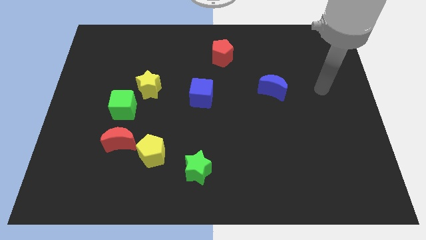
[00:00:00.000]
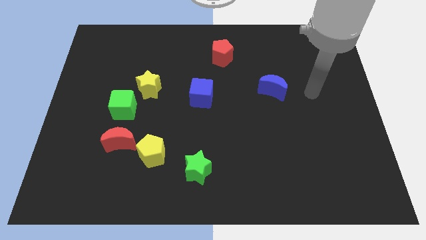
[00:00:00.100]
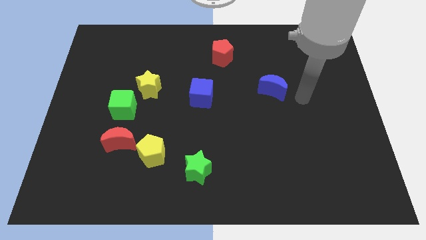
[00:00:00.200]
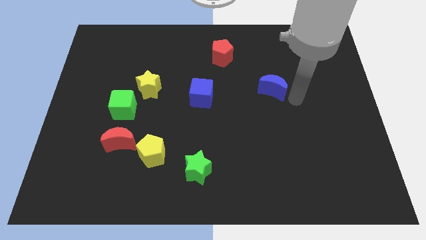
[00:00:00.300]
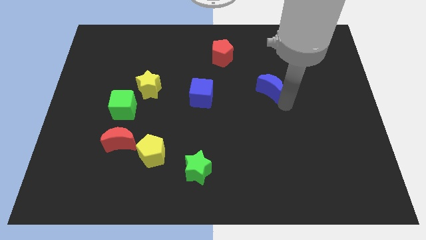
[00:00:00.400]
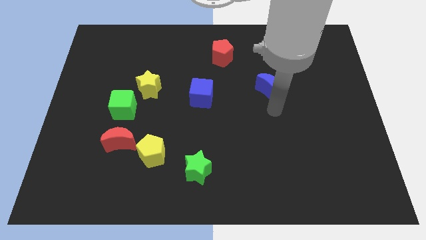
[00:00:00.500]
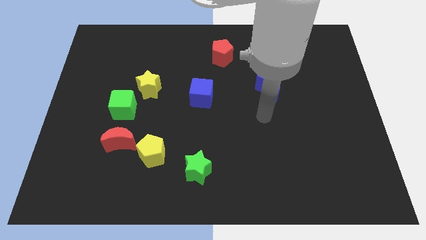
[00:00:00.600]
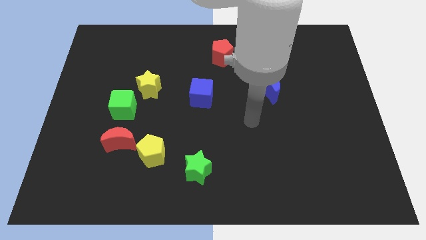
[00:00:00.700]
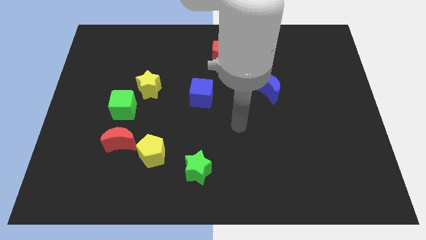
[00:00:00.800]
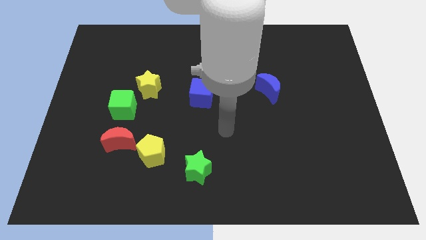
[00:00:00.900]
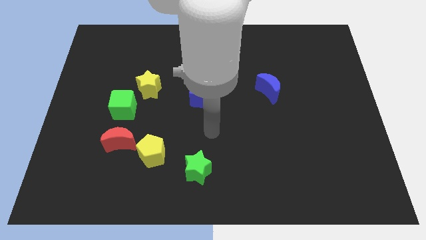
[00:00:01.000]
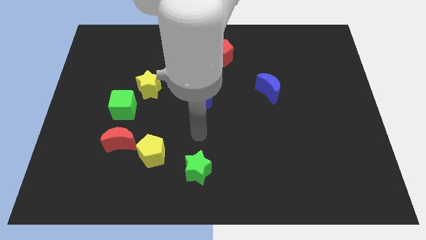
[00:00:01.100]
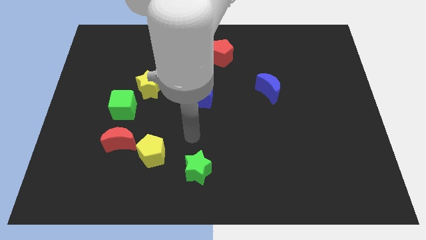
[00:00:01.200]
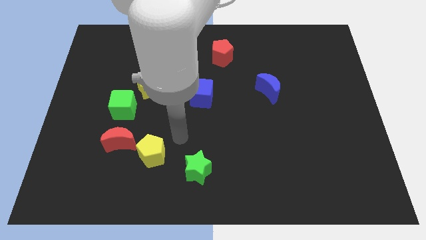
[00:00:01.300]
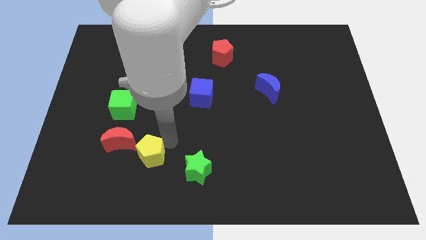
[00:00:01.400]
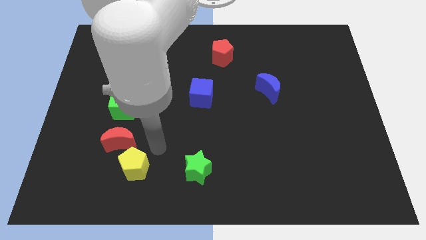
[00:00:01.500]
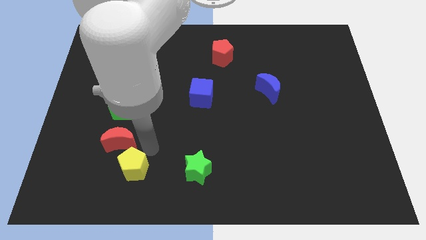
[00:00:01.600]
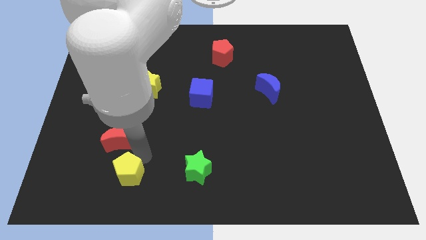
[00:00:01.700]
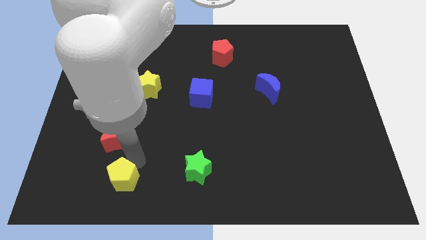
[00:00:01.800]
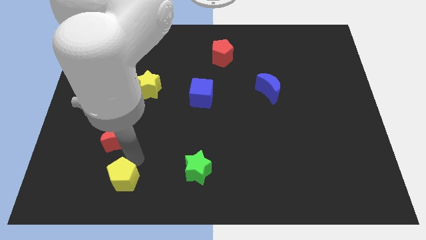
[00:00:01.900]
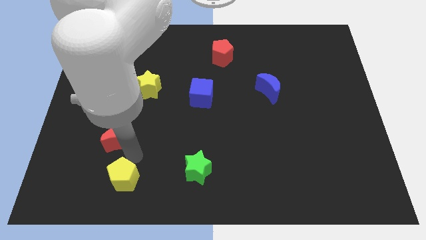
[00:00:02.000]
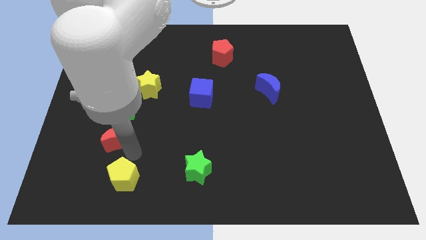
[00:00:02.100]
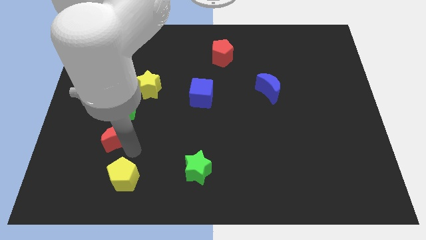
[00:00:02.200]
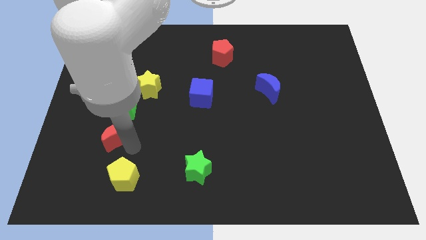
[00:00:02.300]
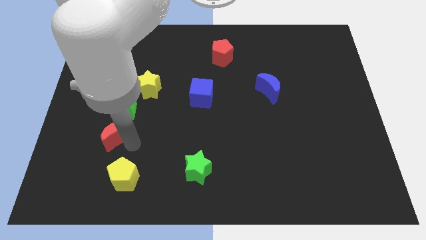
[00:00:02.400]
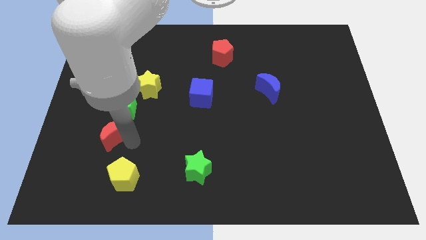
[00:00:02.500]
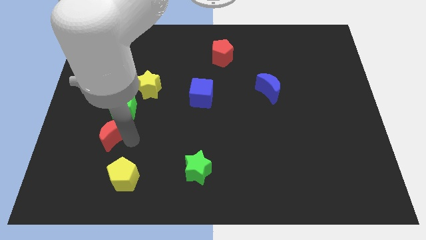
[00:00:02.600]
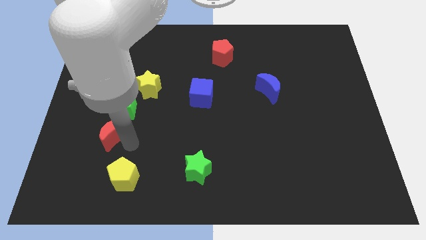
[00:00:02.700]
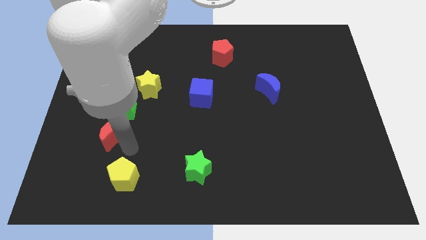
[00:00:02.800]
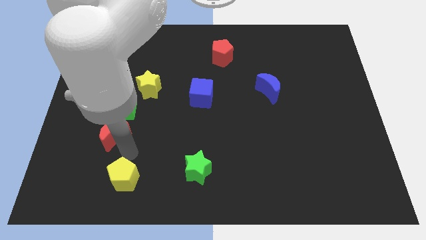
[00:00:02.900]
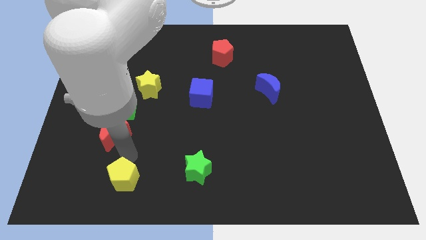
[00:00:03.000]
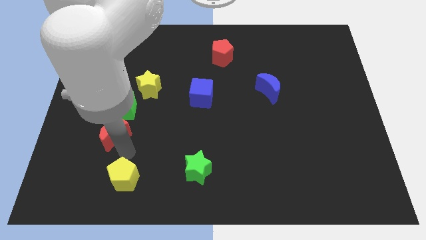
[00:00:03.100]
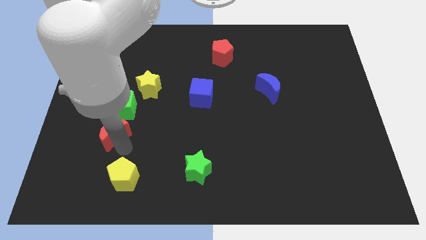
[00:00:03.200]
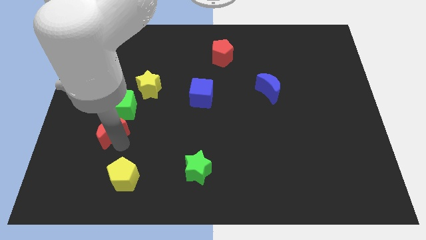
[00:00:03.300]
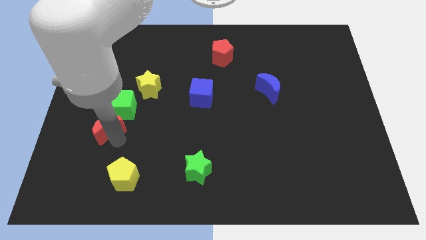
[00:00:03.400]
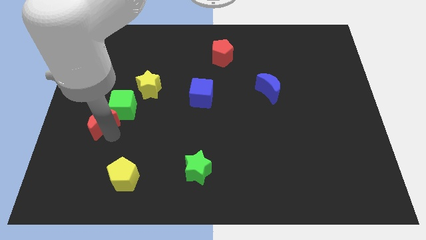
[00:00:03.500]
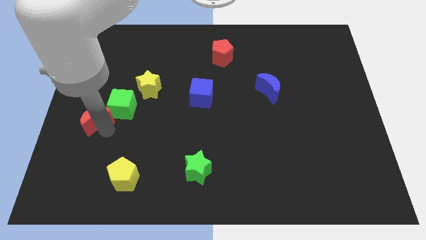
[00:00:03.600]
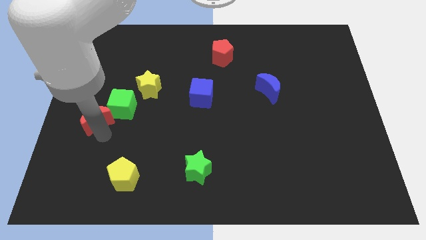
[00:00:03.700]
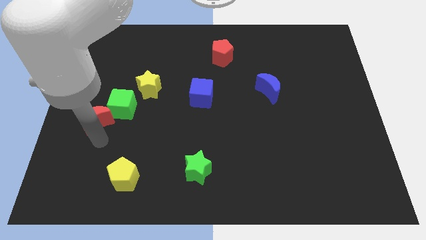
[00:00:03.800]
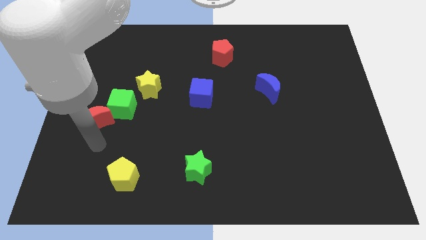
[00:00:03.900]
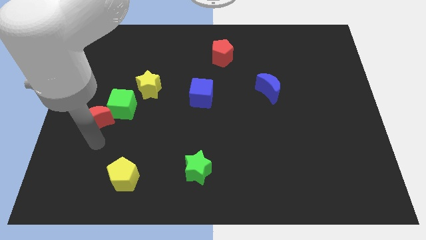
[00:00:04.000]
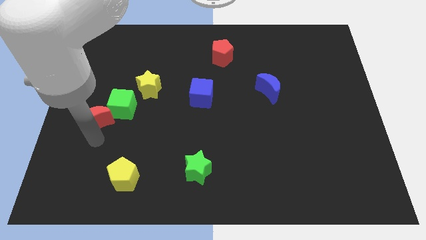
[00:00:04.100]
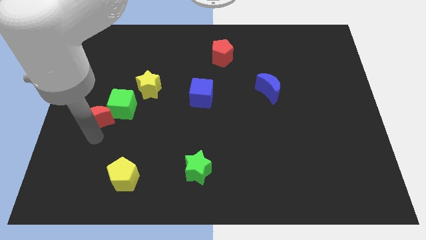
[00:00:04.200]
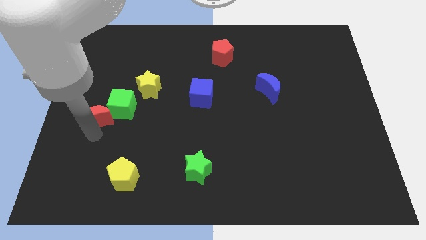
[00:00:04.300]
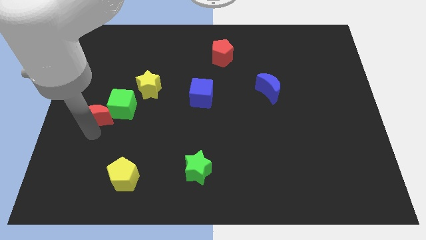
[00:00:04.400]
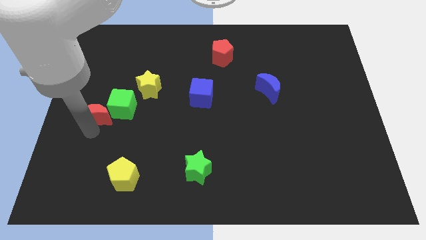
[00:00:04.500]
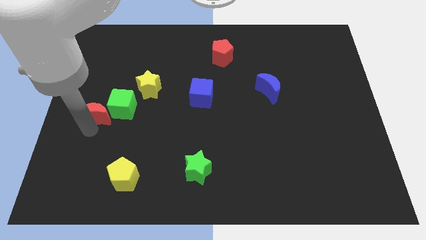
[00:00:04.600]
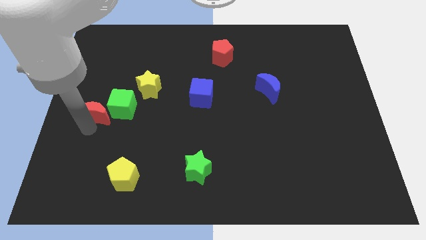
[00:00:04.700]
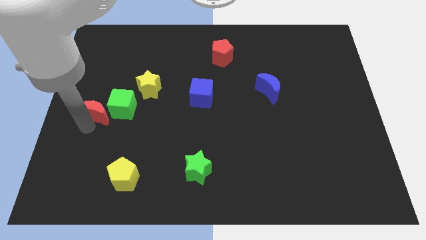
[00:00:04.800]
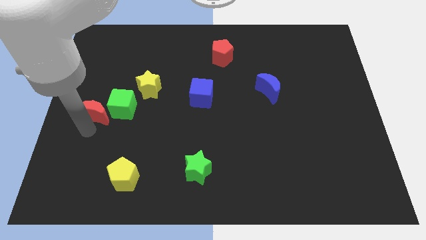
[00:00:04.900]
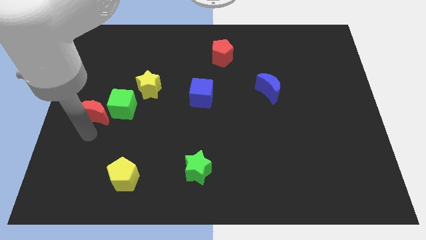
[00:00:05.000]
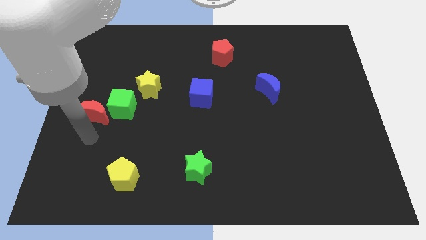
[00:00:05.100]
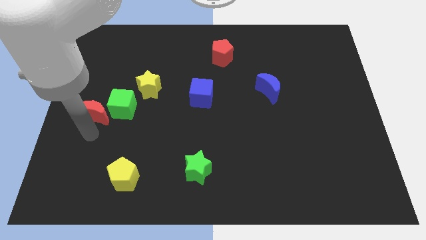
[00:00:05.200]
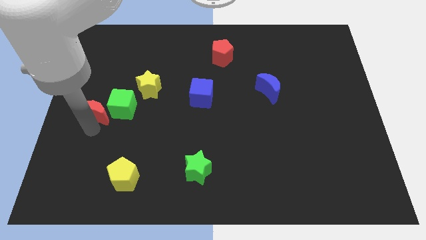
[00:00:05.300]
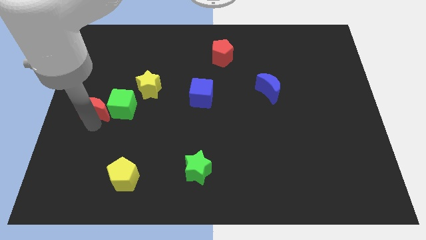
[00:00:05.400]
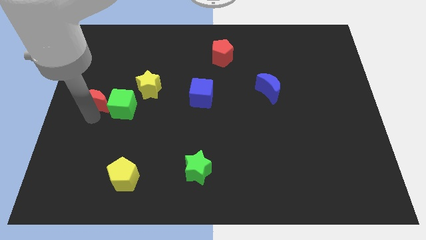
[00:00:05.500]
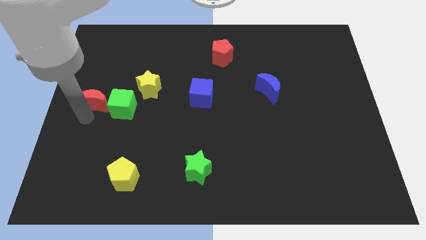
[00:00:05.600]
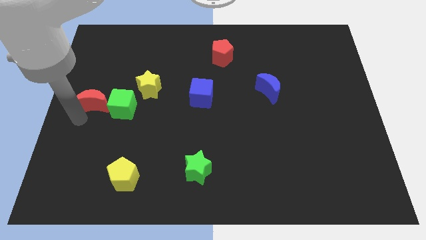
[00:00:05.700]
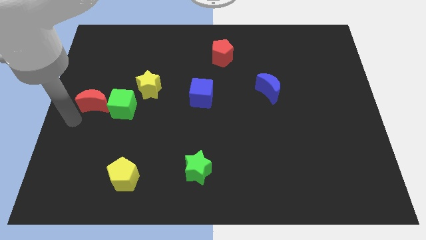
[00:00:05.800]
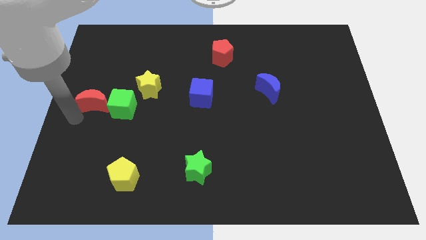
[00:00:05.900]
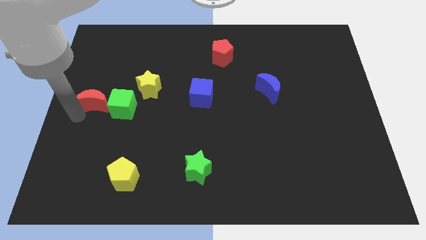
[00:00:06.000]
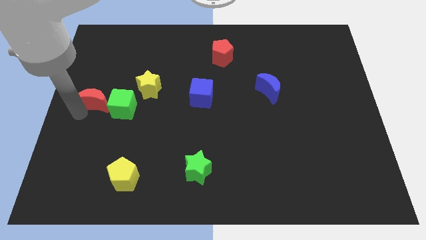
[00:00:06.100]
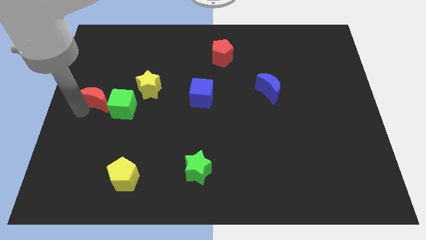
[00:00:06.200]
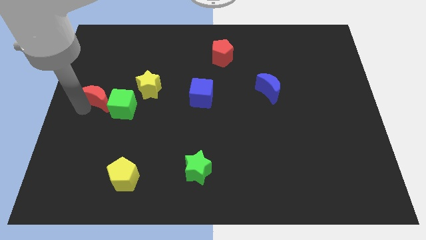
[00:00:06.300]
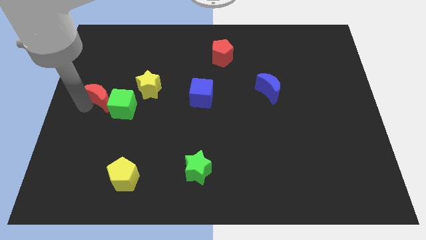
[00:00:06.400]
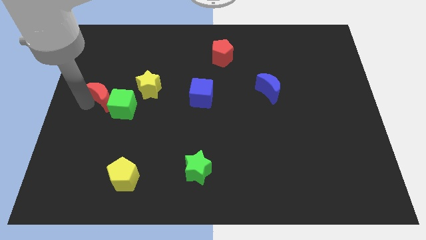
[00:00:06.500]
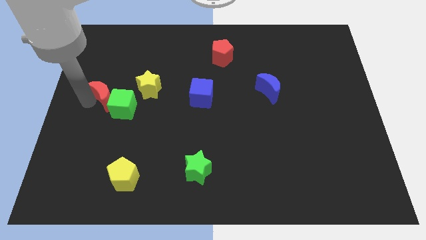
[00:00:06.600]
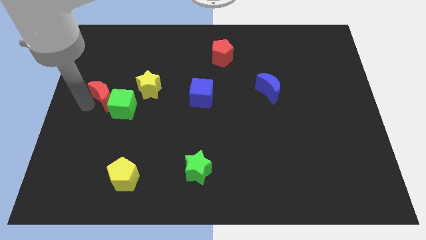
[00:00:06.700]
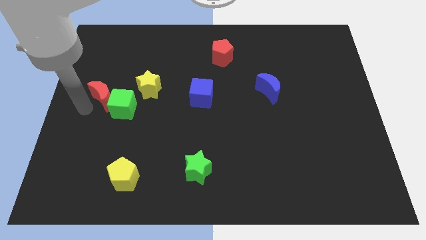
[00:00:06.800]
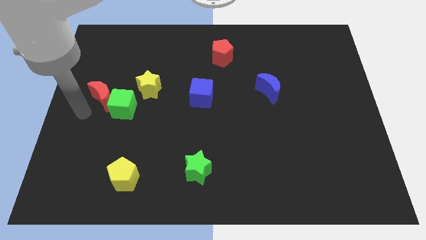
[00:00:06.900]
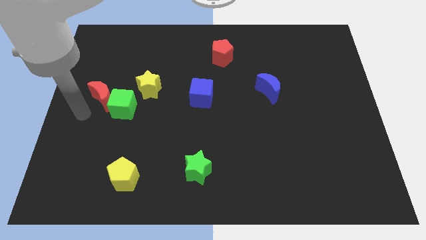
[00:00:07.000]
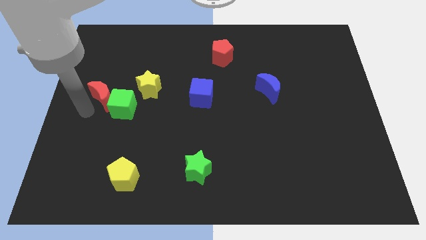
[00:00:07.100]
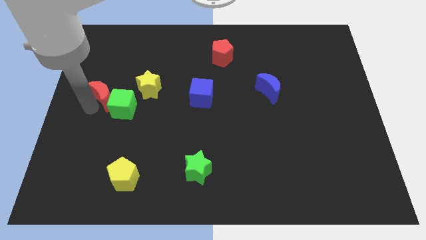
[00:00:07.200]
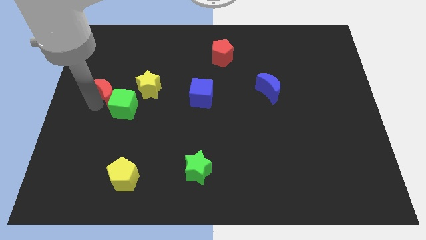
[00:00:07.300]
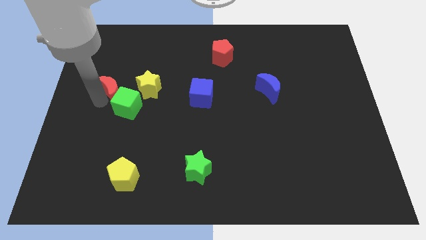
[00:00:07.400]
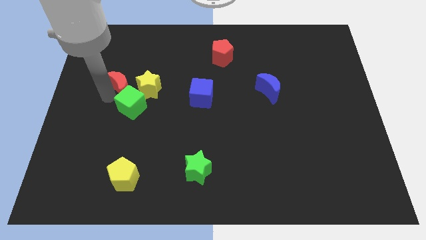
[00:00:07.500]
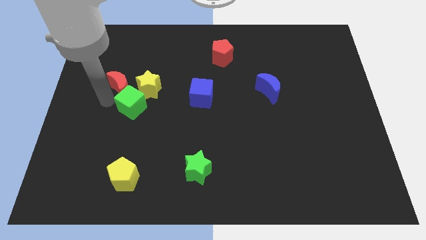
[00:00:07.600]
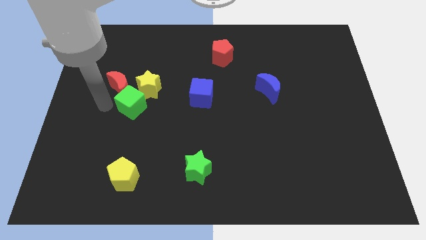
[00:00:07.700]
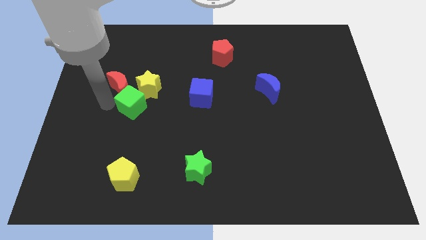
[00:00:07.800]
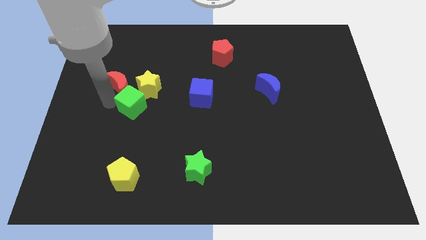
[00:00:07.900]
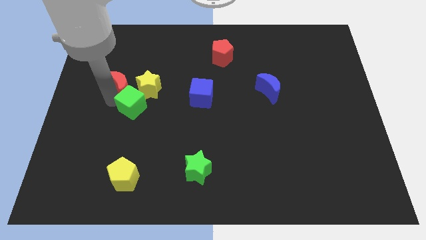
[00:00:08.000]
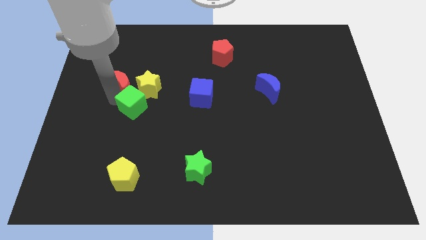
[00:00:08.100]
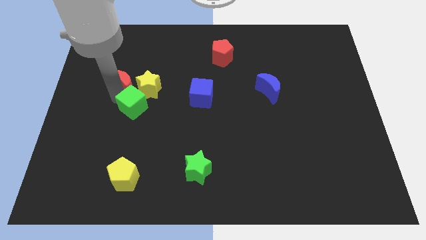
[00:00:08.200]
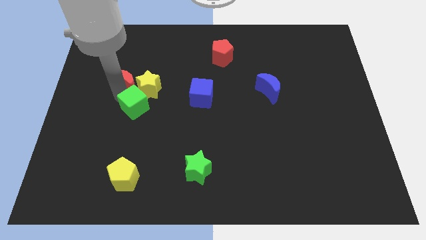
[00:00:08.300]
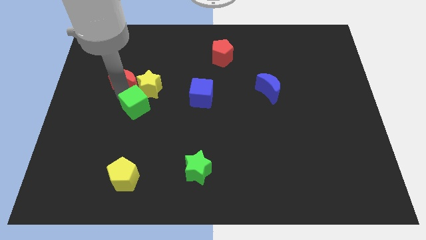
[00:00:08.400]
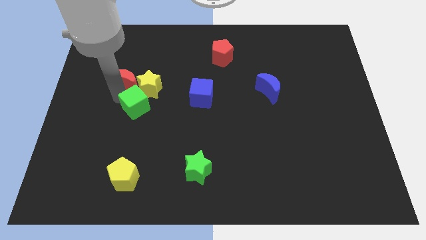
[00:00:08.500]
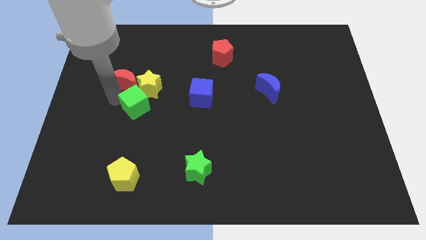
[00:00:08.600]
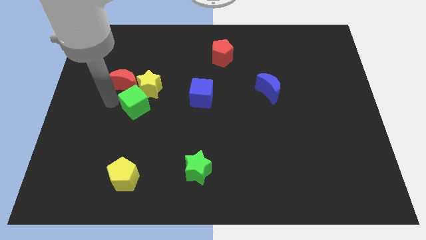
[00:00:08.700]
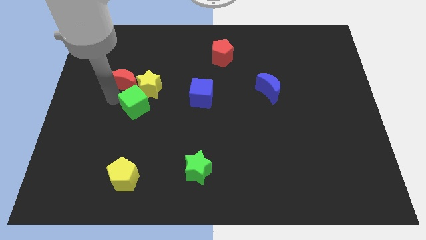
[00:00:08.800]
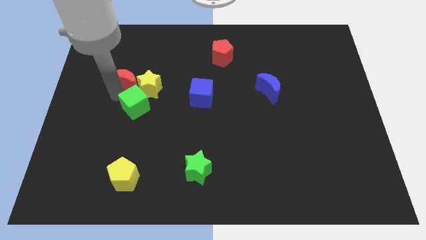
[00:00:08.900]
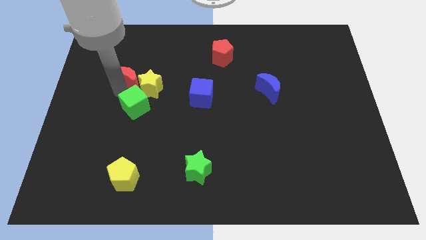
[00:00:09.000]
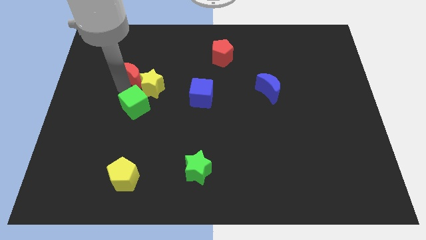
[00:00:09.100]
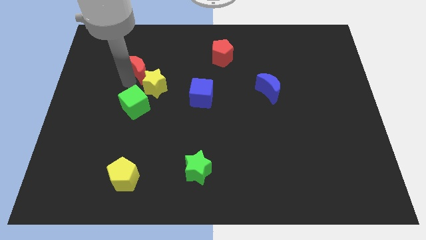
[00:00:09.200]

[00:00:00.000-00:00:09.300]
move the red moon above the yellow star
